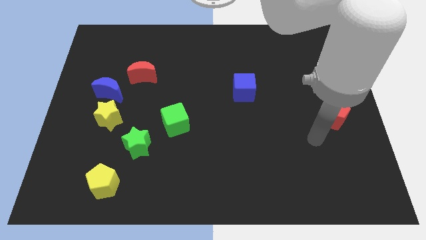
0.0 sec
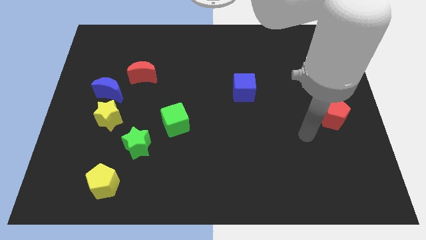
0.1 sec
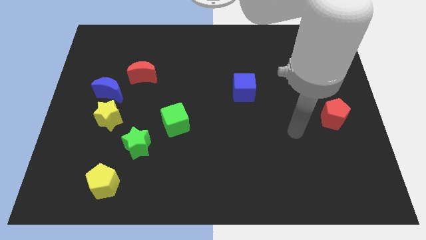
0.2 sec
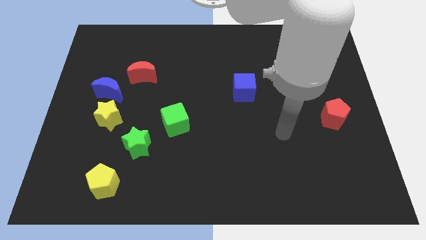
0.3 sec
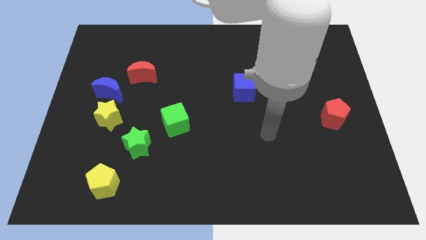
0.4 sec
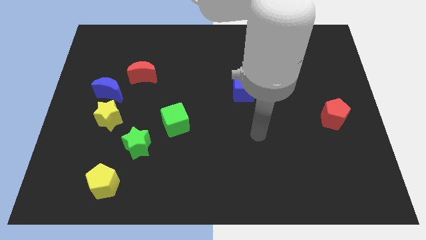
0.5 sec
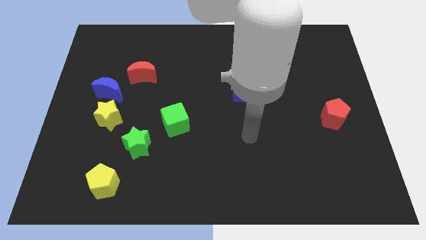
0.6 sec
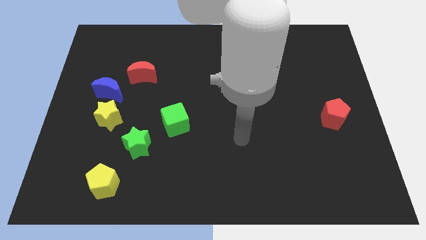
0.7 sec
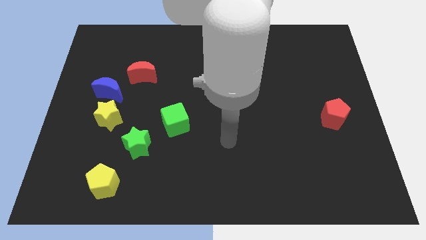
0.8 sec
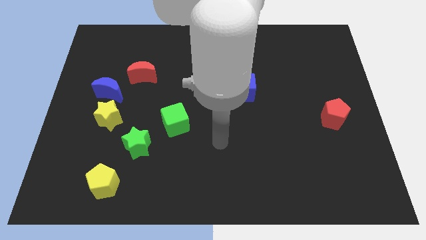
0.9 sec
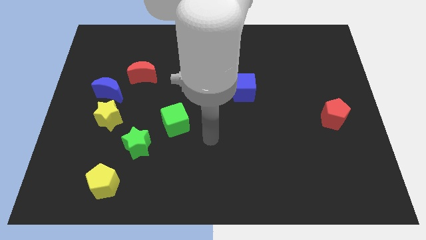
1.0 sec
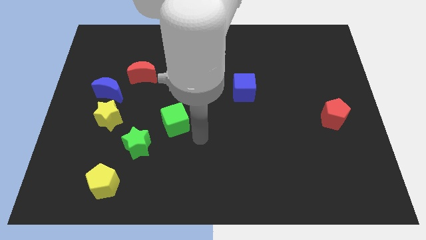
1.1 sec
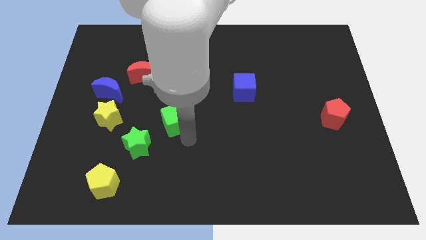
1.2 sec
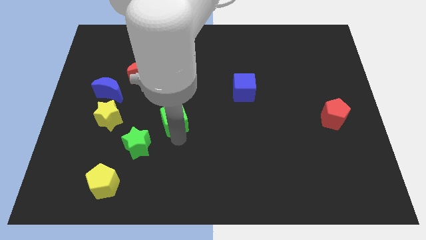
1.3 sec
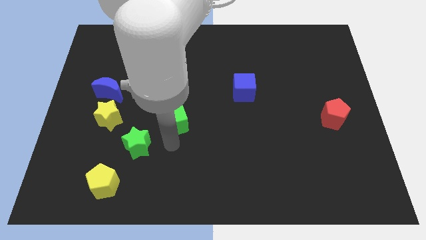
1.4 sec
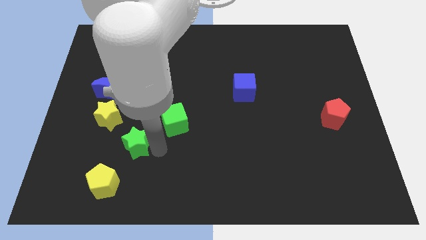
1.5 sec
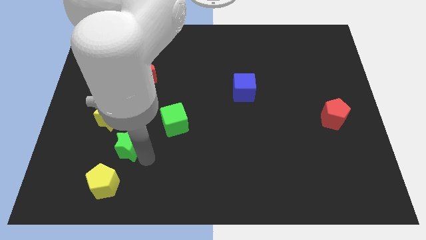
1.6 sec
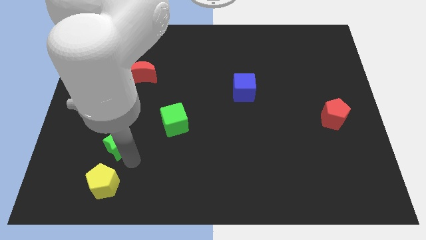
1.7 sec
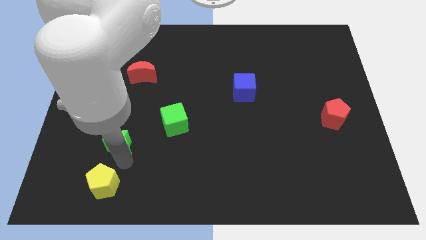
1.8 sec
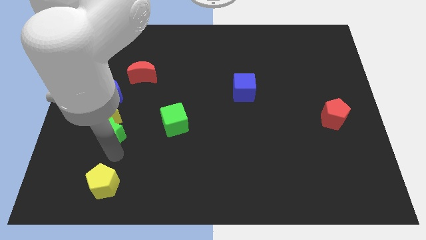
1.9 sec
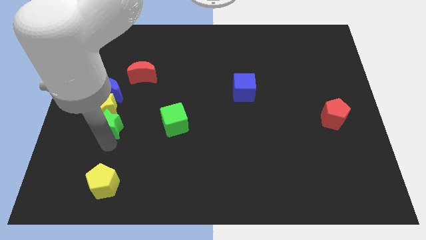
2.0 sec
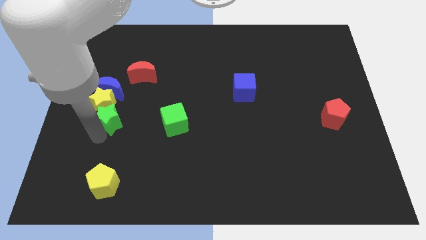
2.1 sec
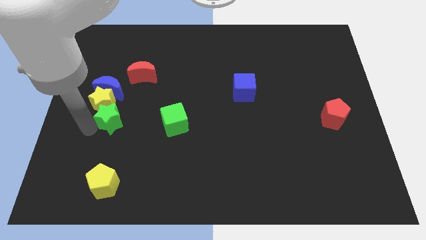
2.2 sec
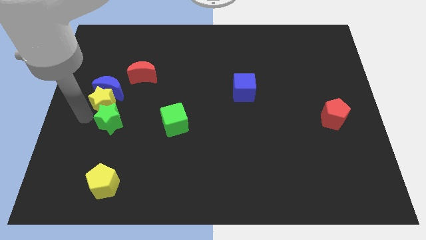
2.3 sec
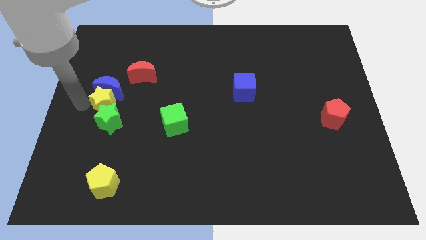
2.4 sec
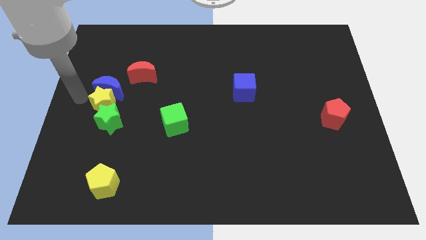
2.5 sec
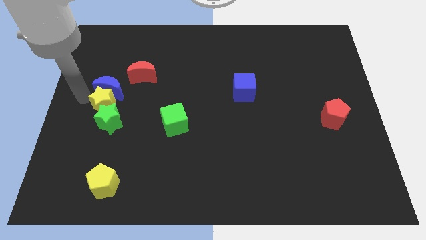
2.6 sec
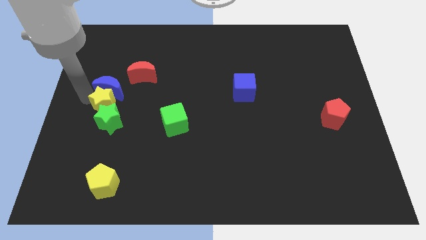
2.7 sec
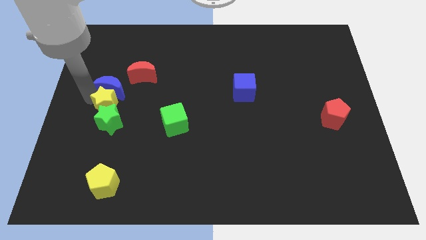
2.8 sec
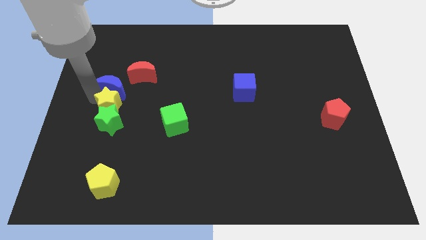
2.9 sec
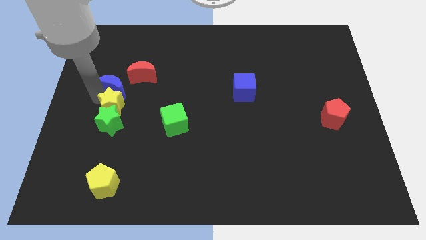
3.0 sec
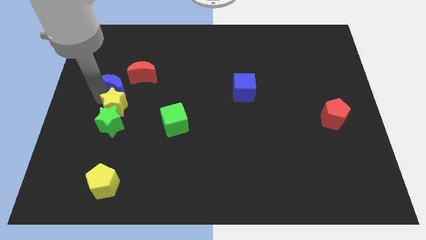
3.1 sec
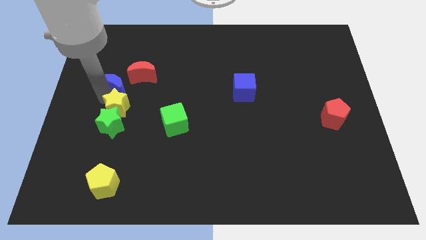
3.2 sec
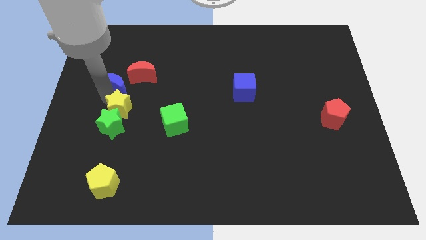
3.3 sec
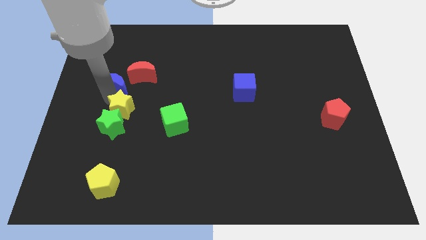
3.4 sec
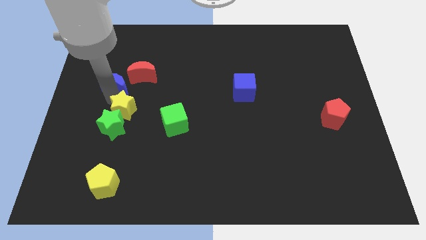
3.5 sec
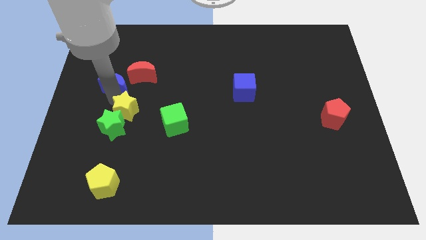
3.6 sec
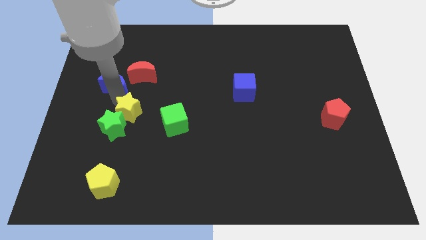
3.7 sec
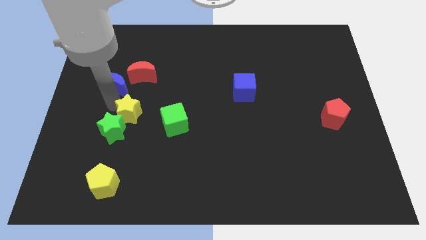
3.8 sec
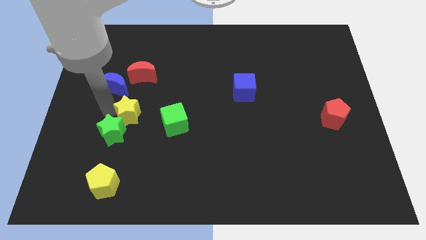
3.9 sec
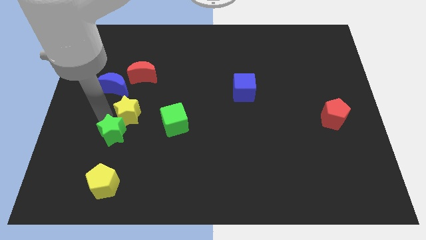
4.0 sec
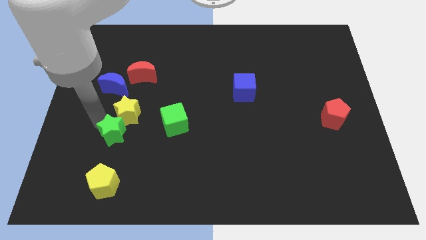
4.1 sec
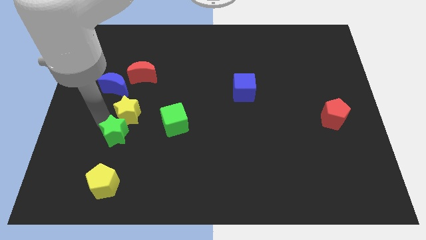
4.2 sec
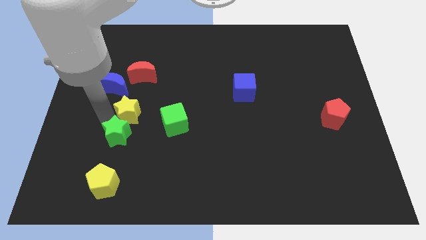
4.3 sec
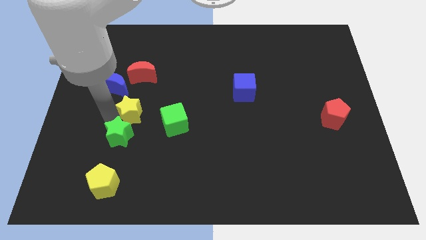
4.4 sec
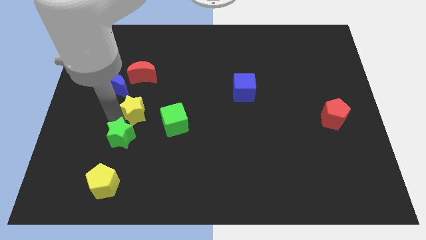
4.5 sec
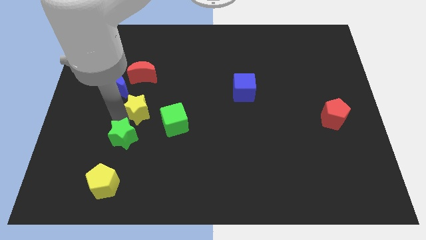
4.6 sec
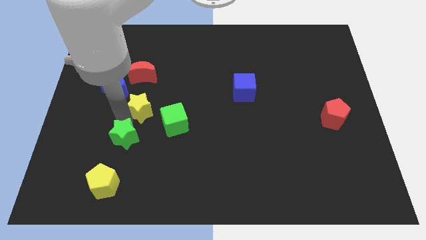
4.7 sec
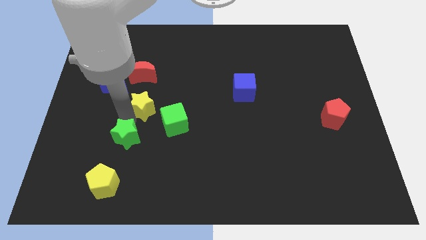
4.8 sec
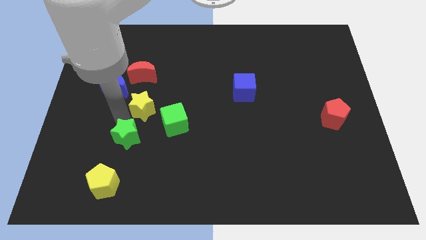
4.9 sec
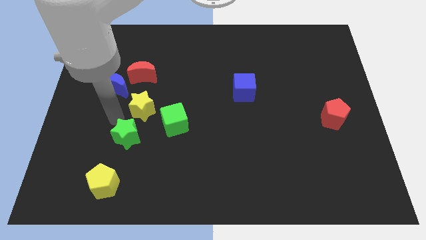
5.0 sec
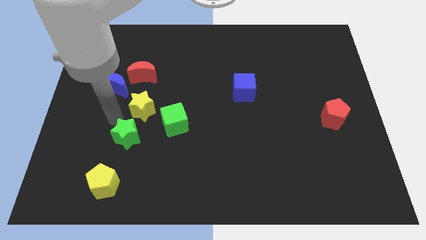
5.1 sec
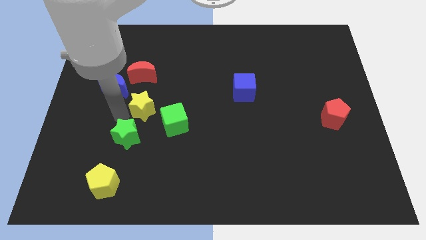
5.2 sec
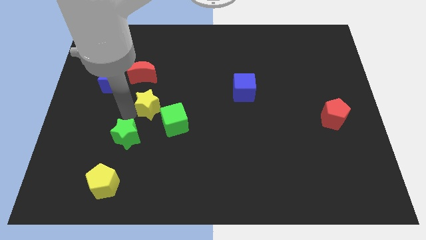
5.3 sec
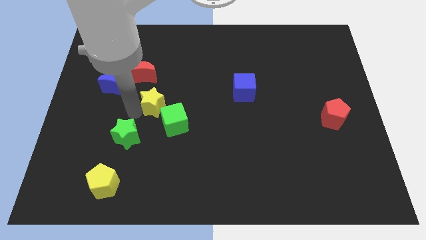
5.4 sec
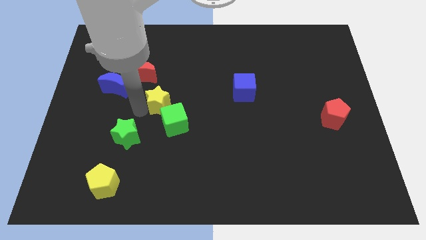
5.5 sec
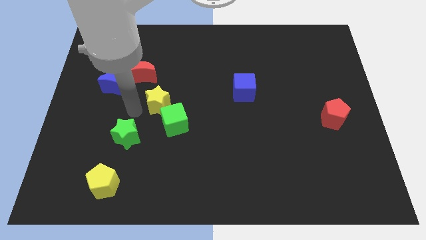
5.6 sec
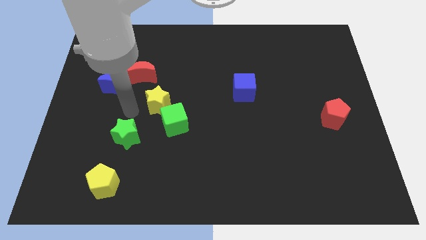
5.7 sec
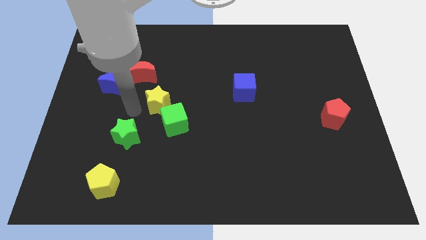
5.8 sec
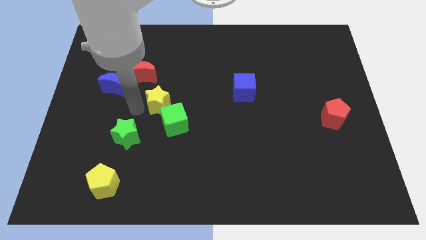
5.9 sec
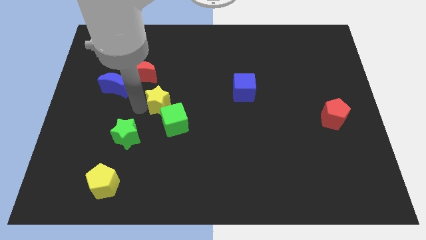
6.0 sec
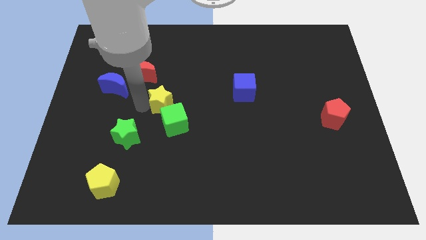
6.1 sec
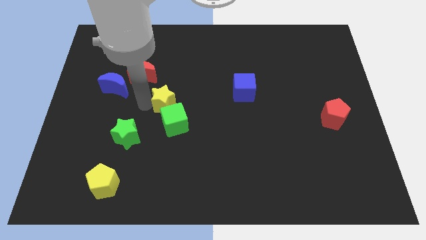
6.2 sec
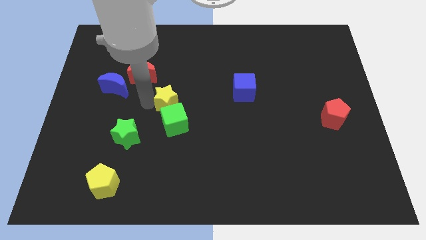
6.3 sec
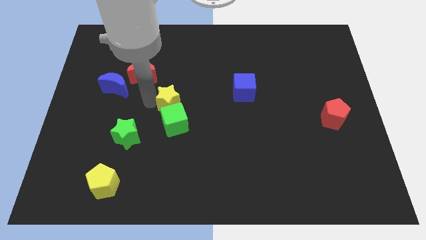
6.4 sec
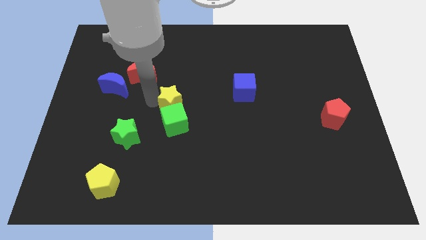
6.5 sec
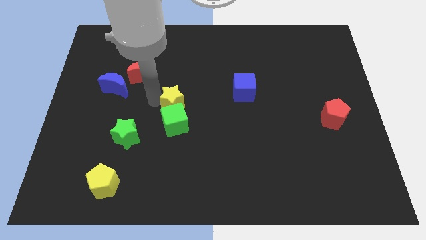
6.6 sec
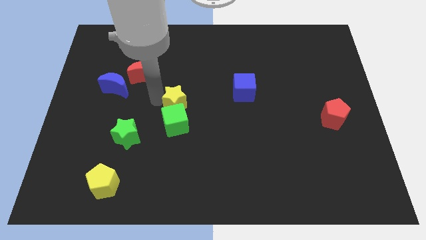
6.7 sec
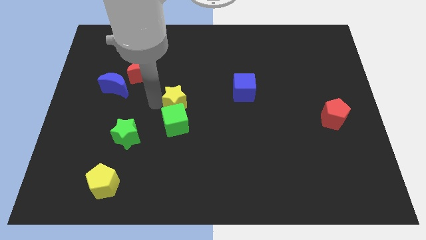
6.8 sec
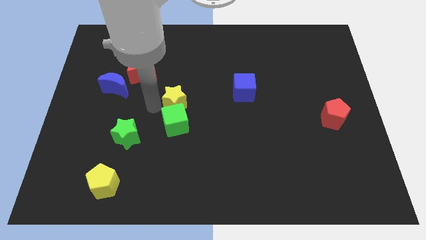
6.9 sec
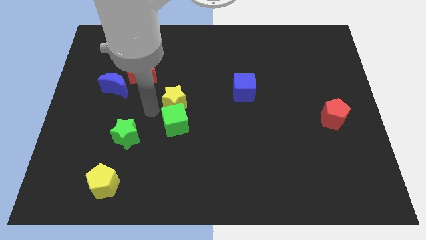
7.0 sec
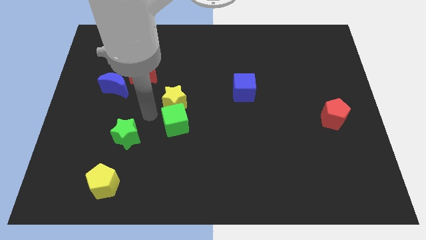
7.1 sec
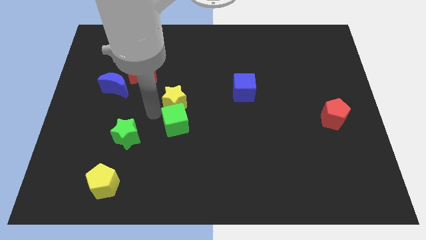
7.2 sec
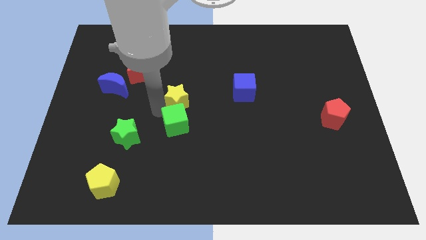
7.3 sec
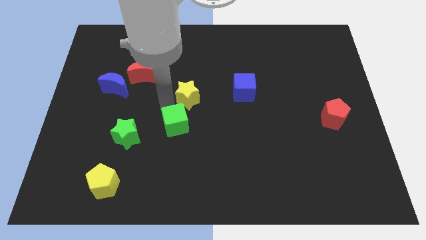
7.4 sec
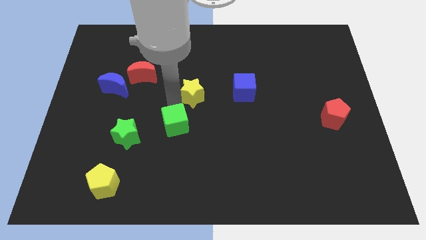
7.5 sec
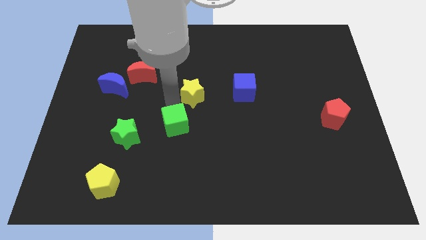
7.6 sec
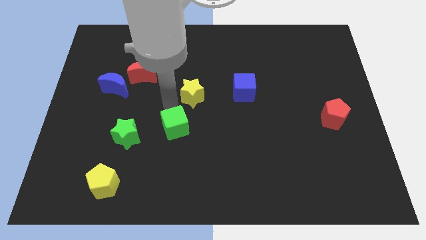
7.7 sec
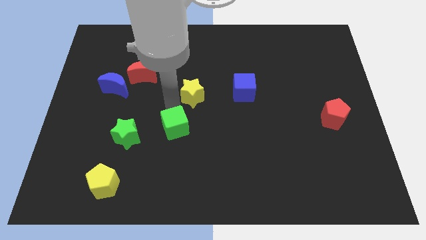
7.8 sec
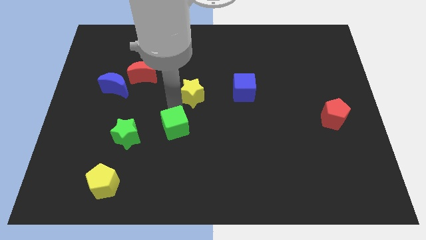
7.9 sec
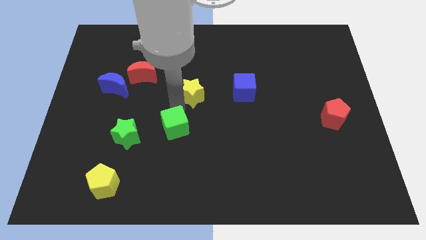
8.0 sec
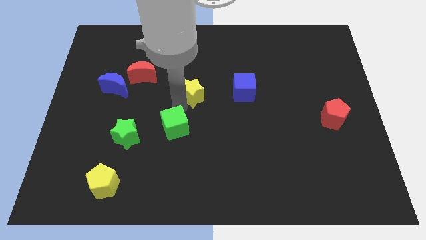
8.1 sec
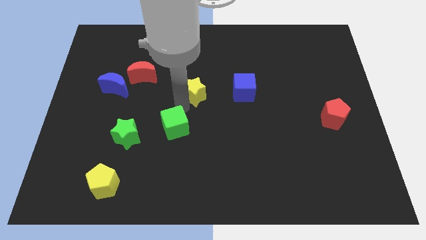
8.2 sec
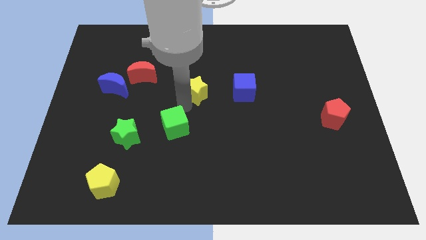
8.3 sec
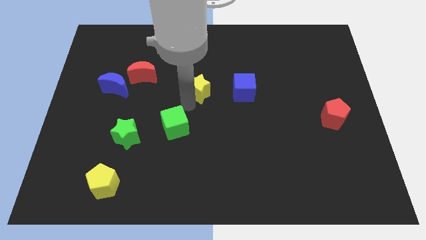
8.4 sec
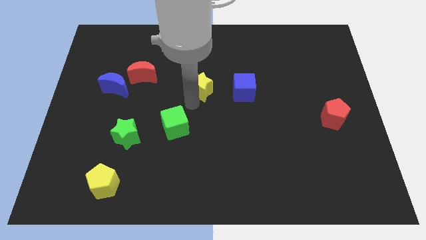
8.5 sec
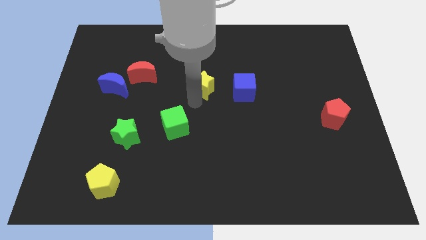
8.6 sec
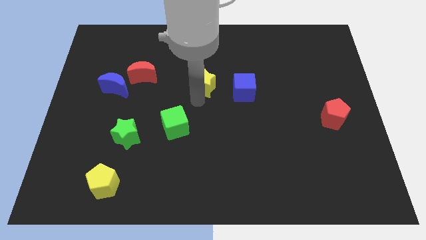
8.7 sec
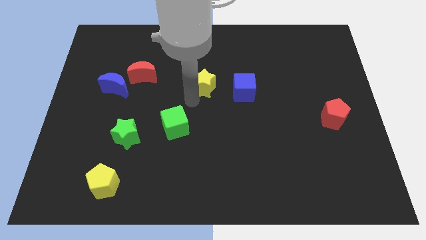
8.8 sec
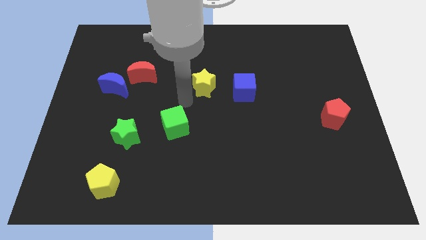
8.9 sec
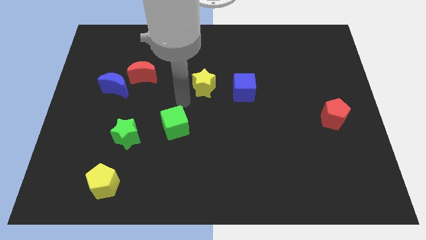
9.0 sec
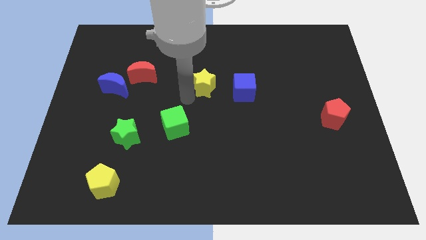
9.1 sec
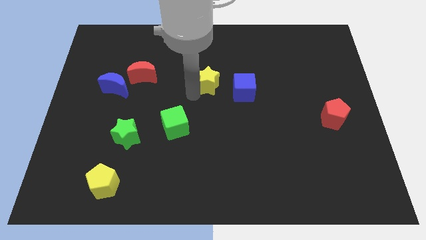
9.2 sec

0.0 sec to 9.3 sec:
put the yellow star to the top left side of the blue cube
